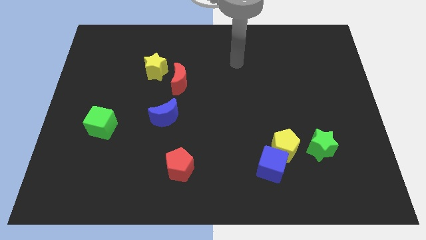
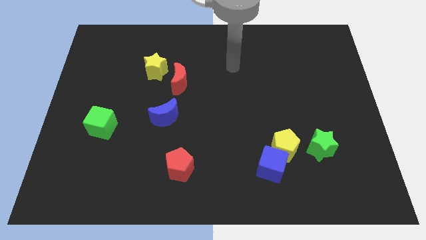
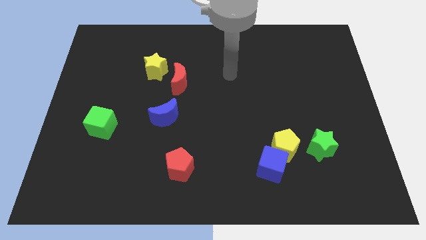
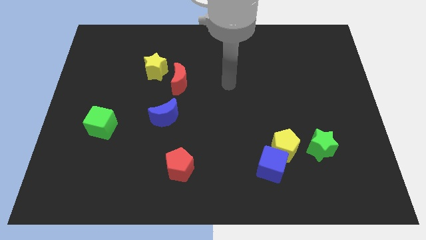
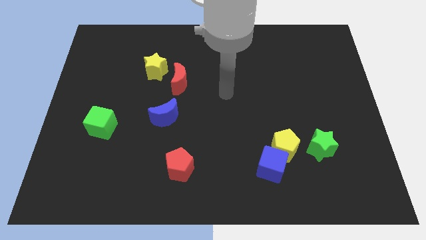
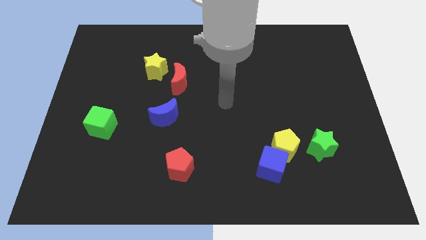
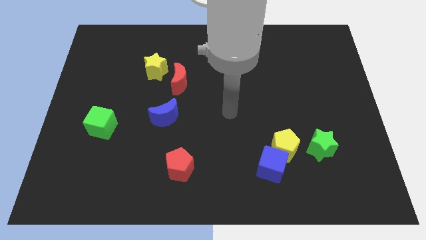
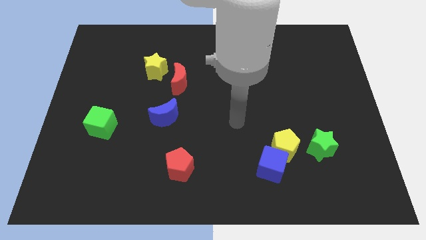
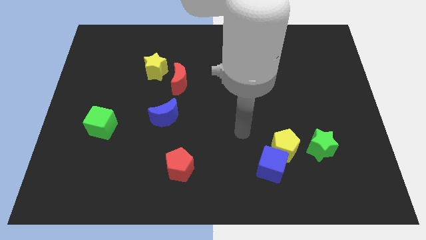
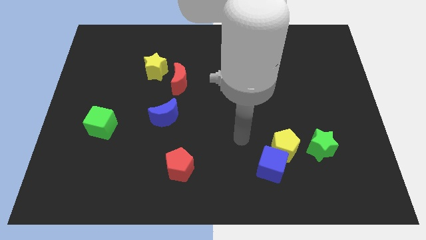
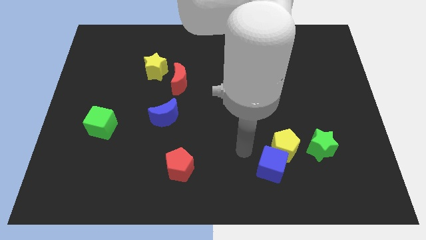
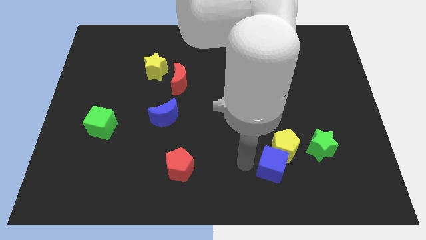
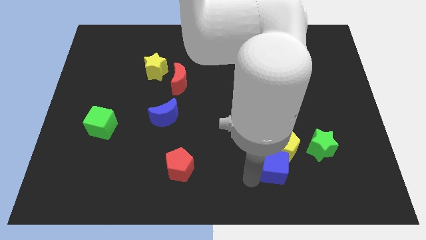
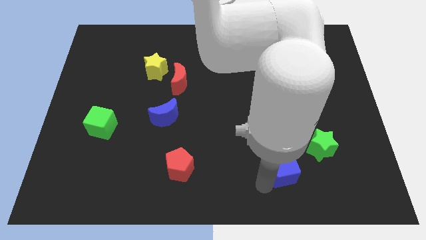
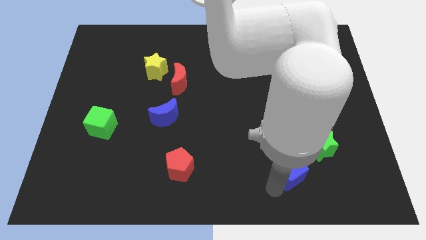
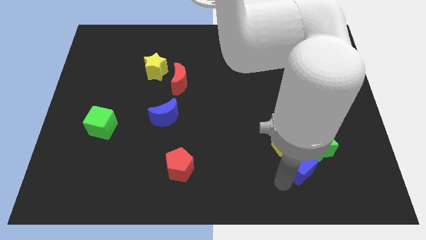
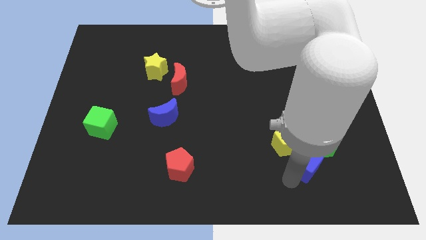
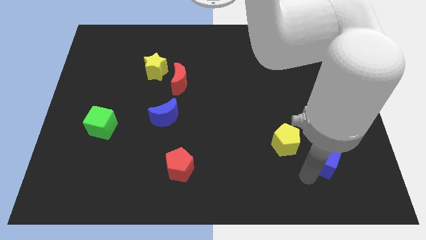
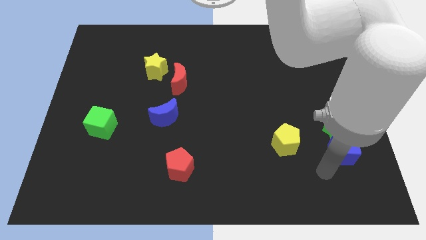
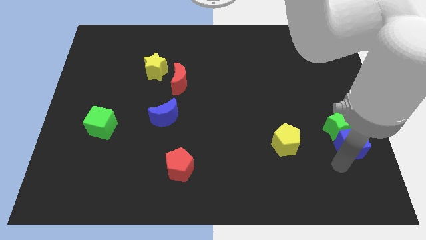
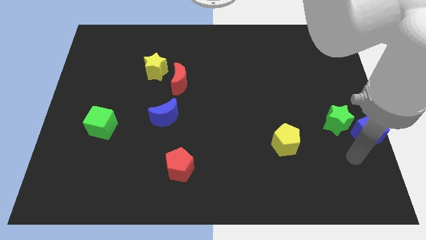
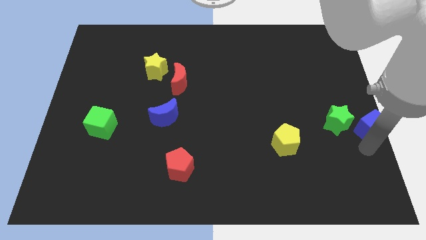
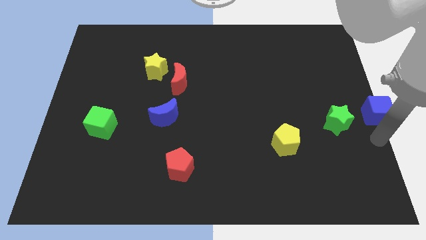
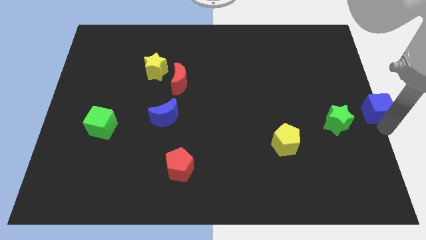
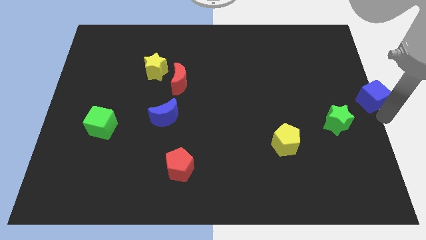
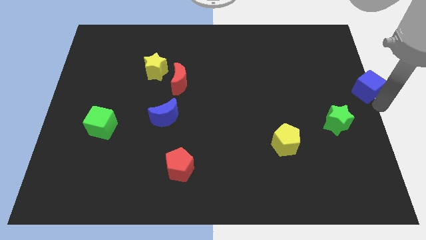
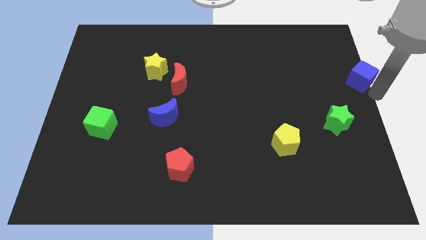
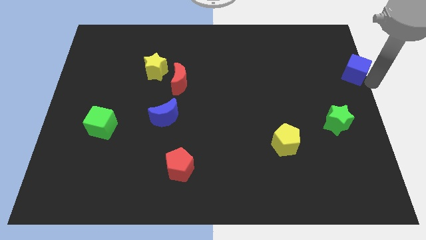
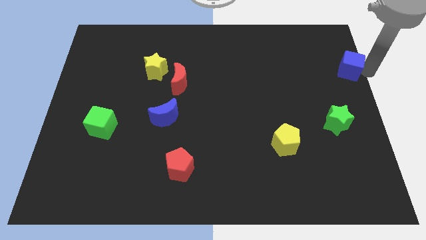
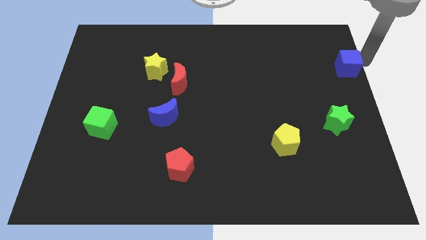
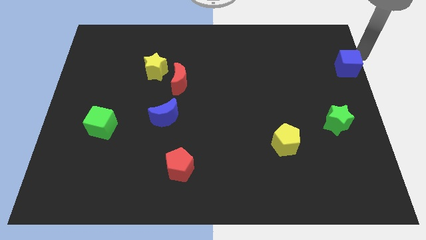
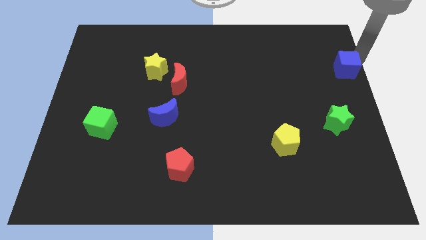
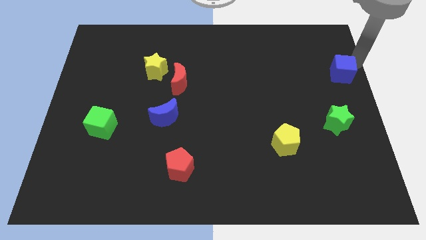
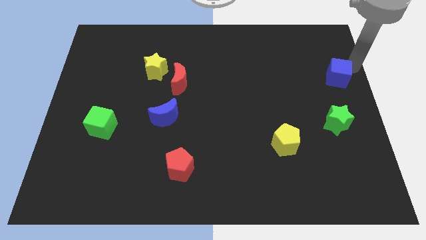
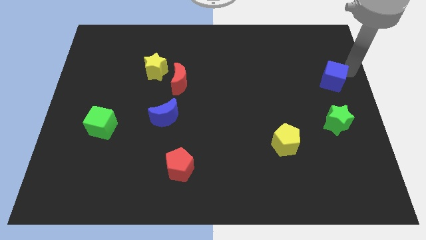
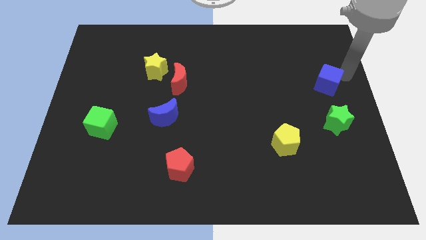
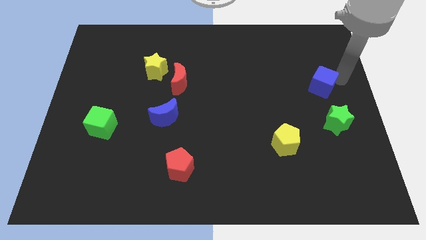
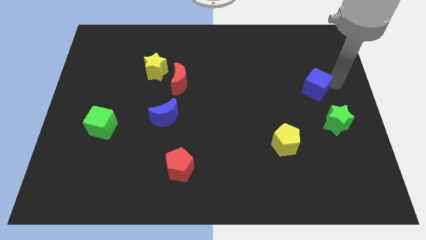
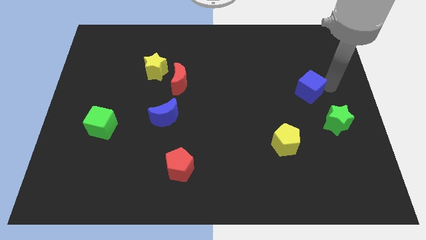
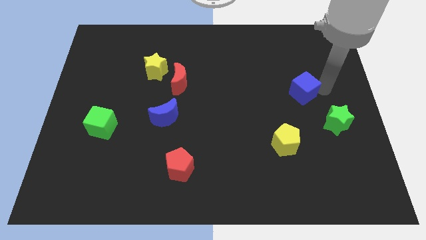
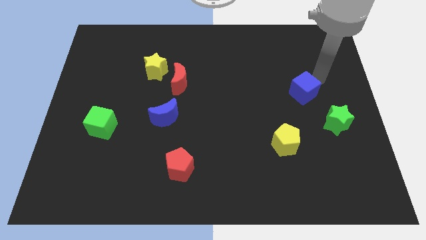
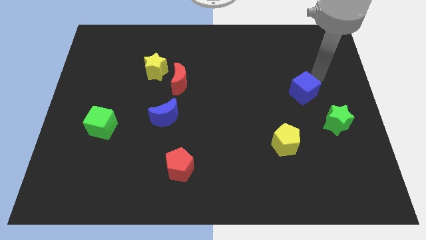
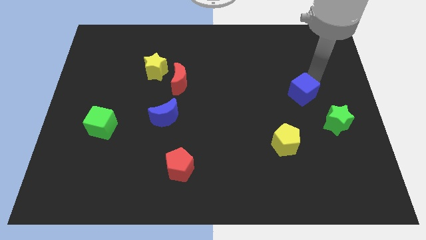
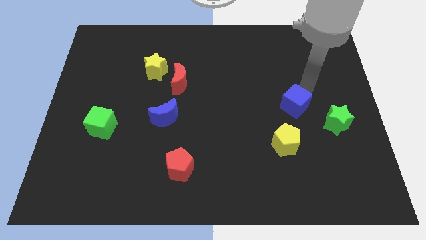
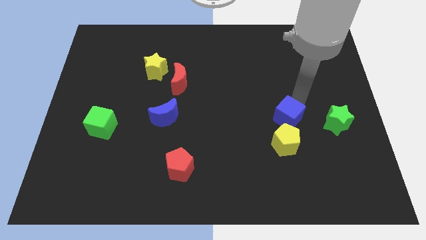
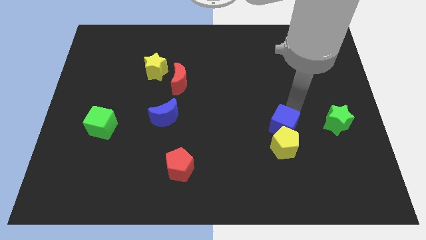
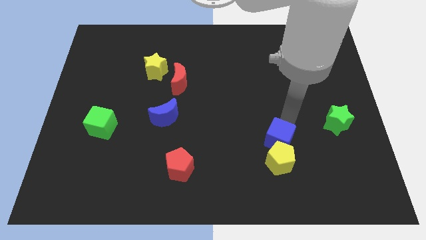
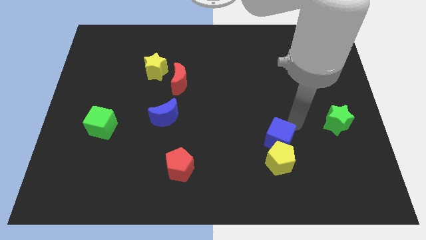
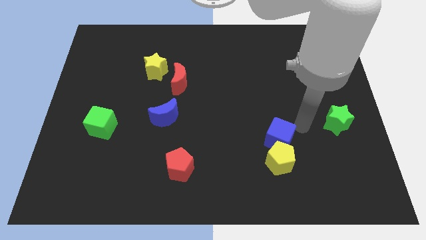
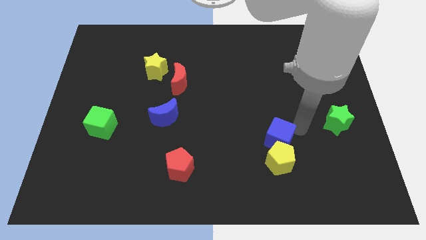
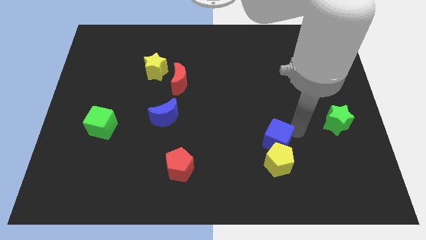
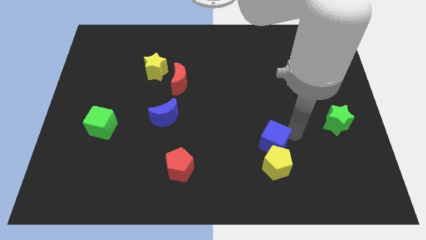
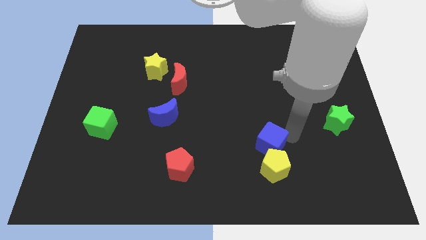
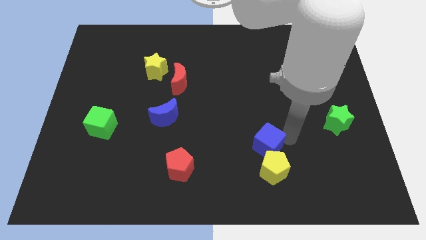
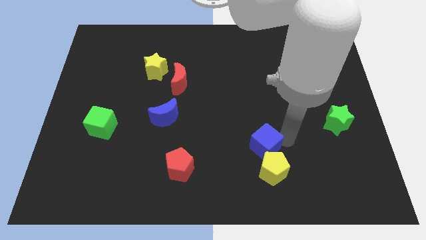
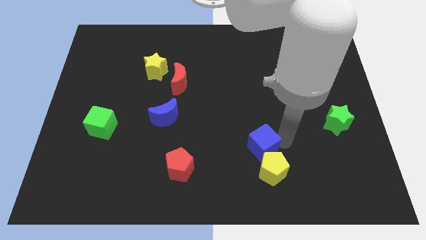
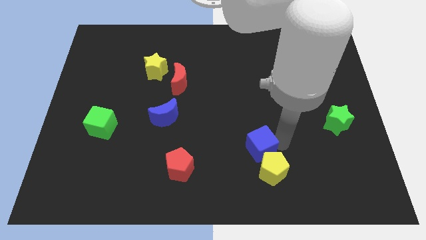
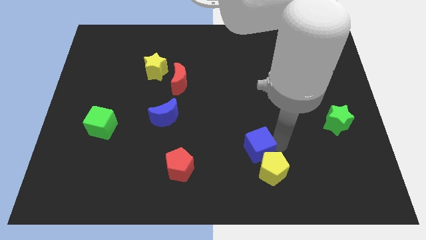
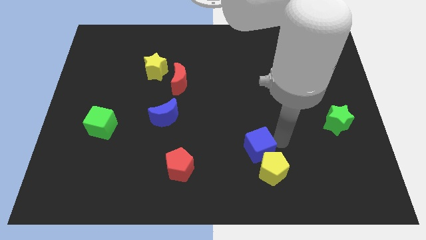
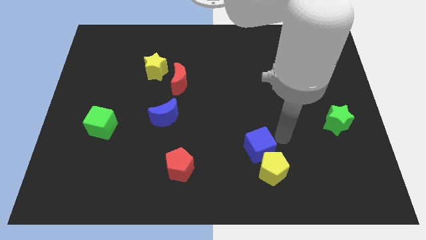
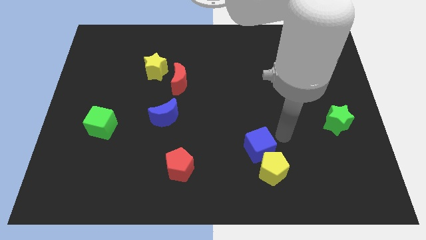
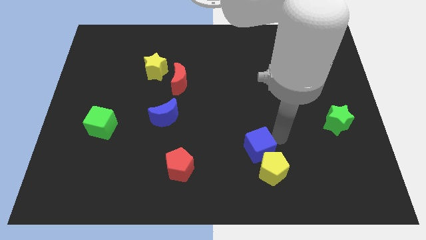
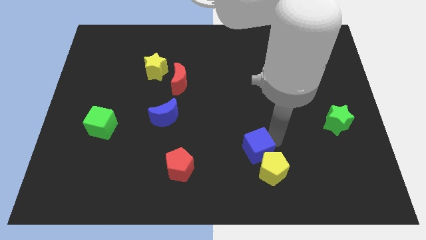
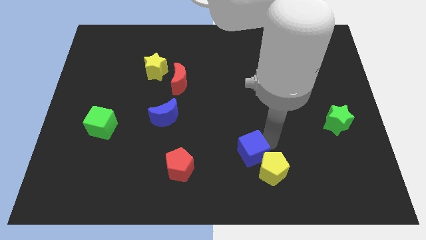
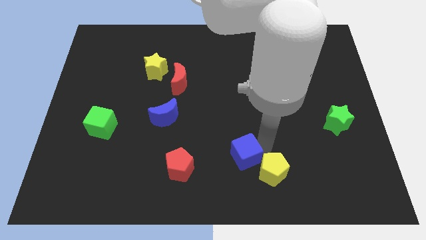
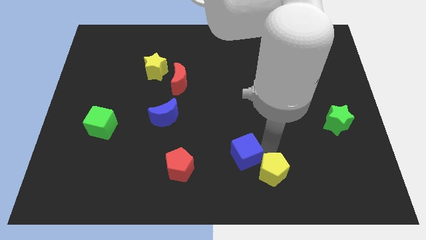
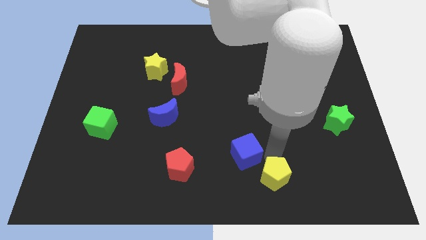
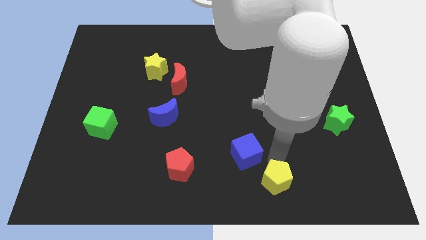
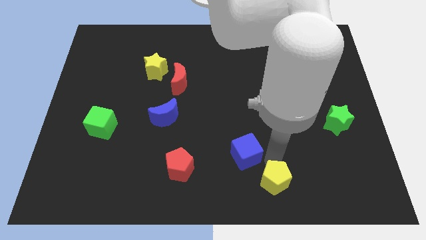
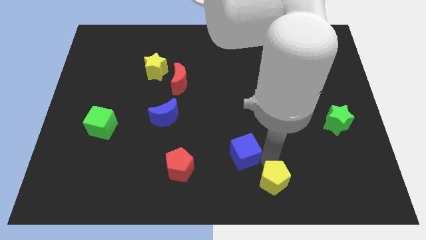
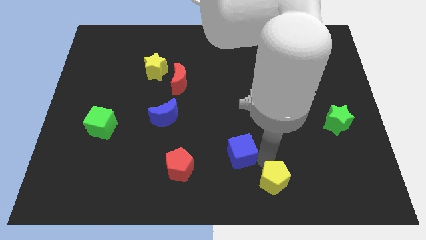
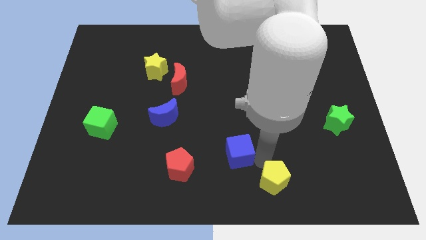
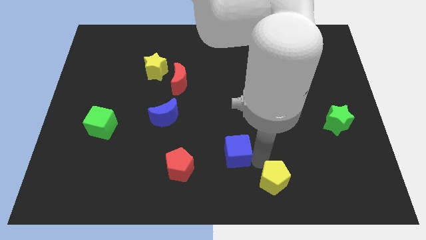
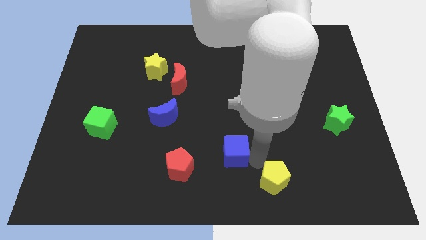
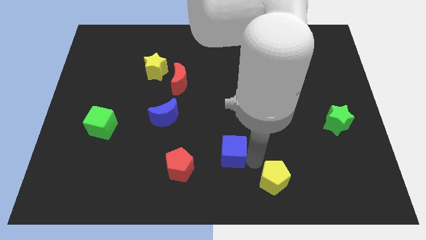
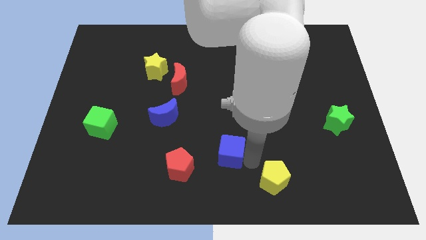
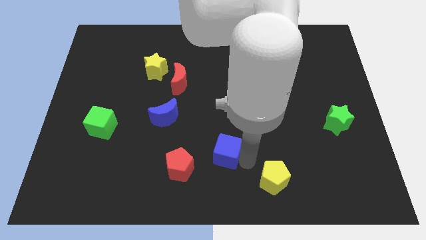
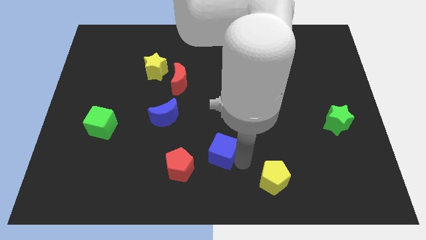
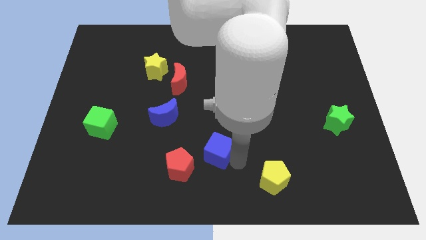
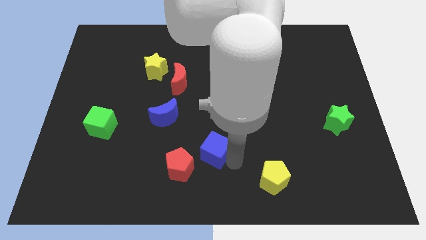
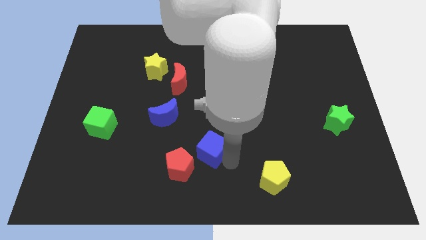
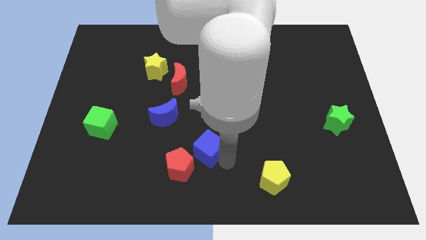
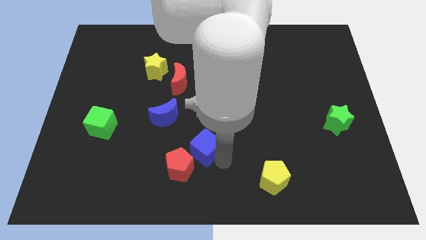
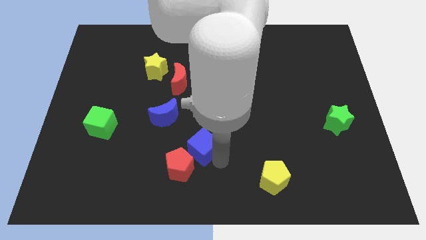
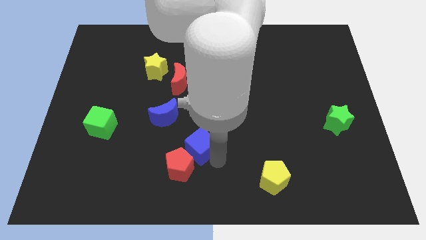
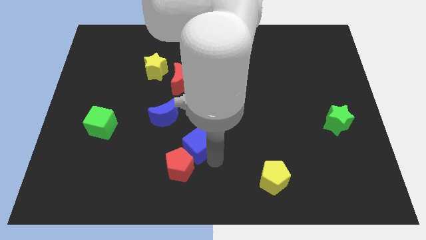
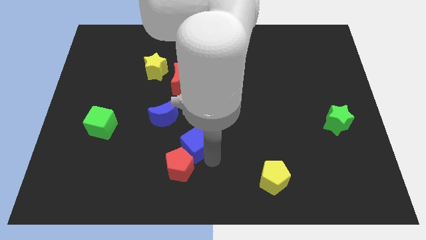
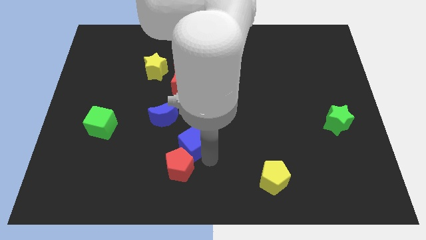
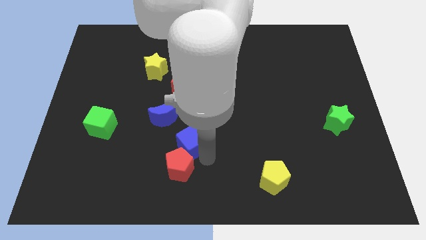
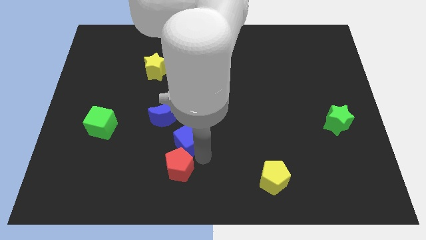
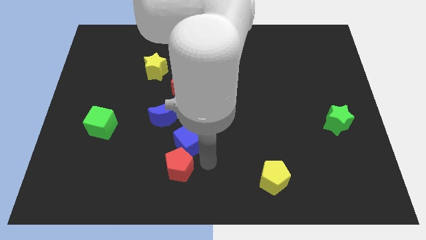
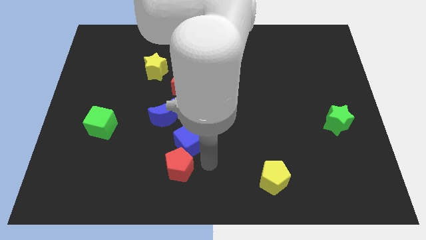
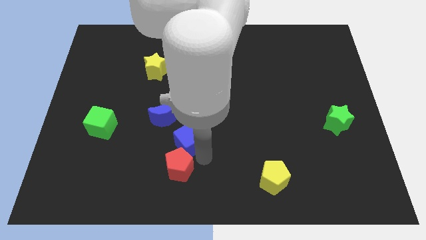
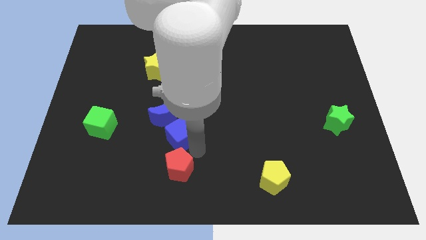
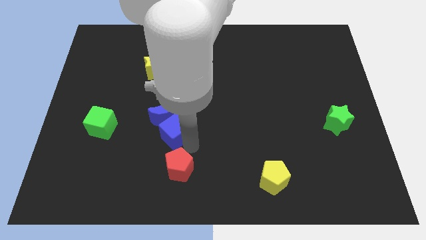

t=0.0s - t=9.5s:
move the blue cube to the blue moon
